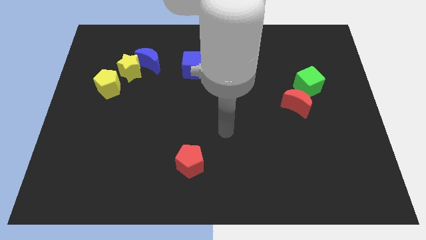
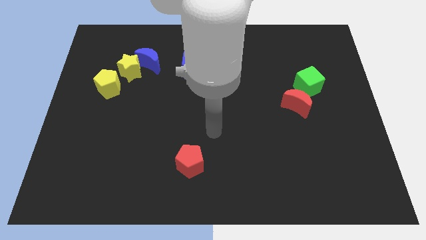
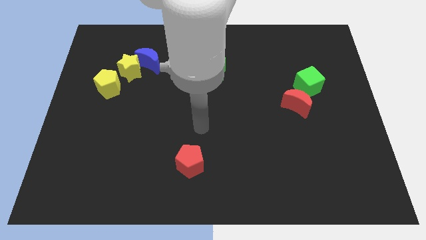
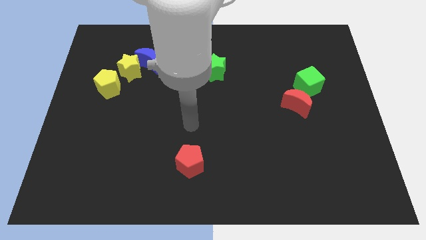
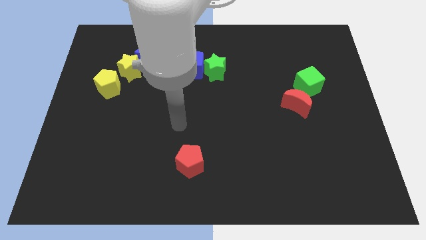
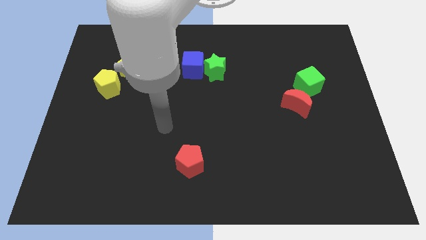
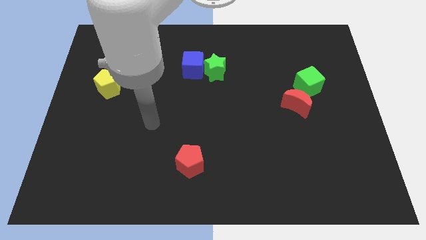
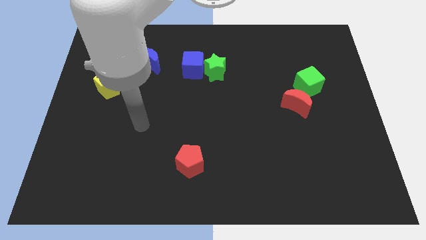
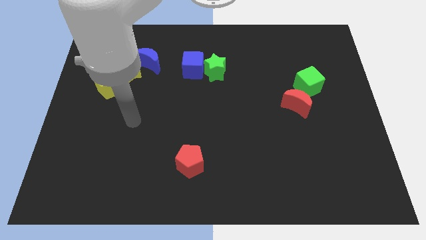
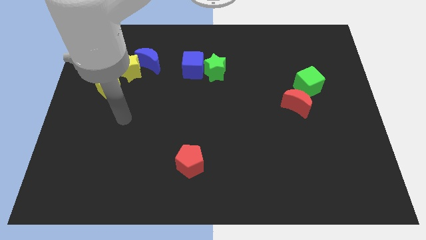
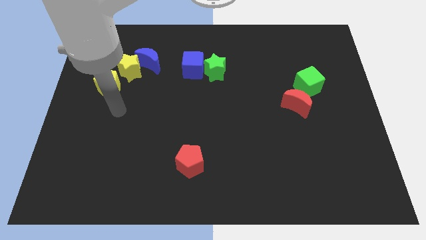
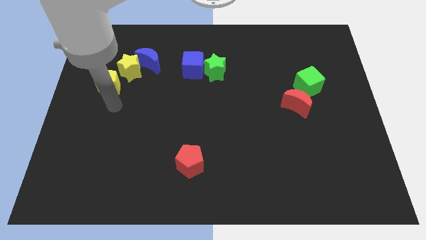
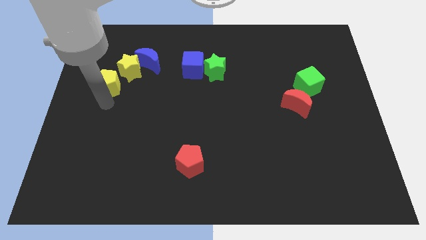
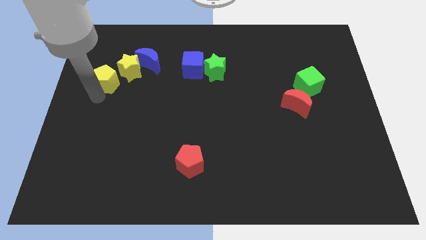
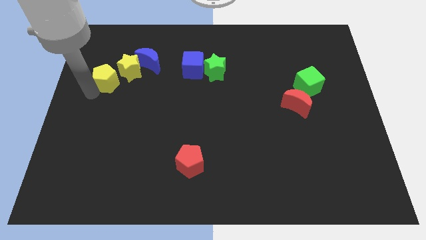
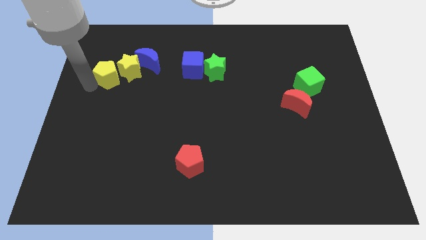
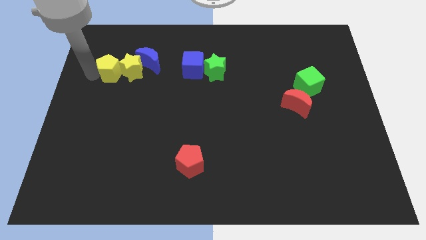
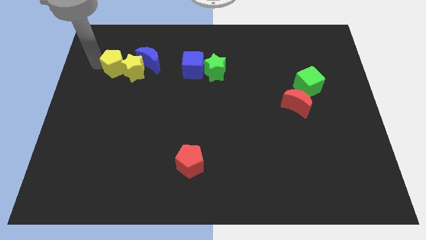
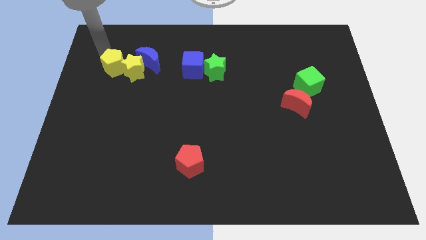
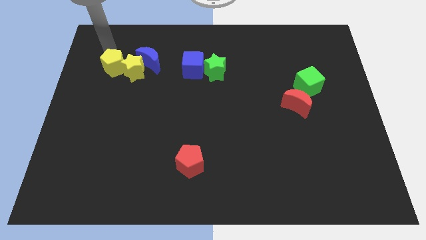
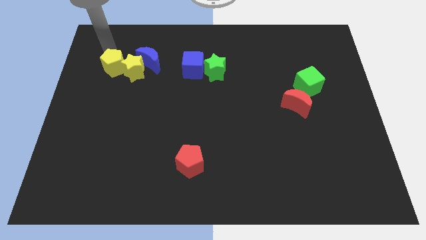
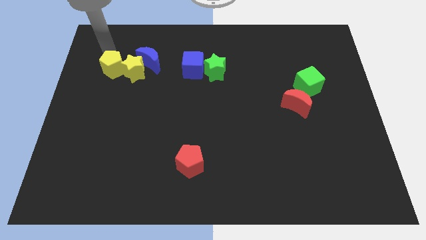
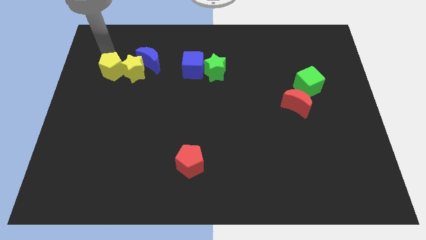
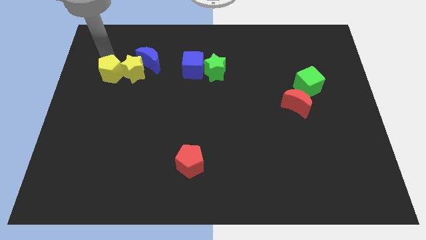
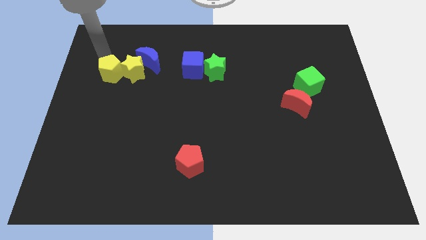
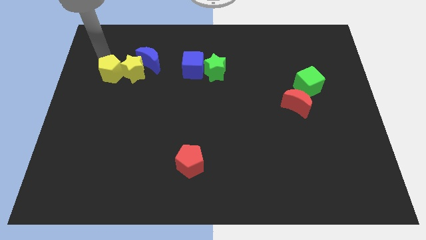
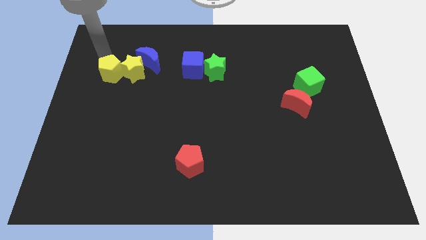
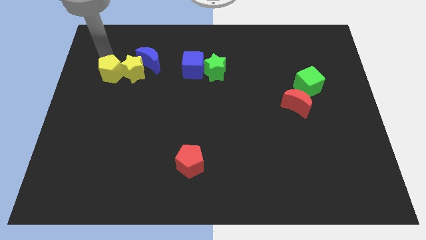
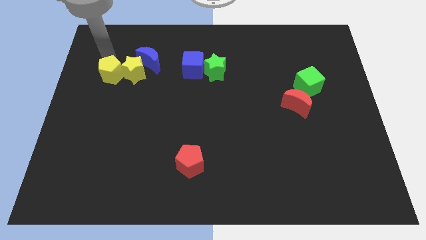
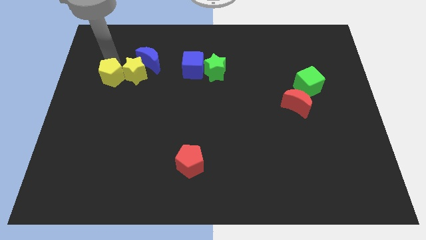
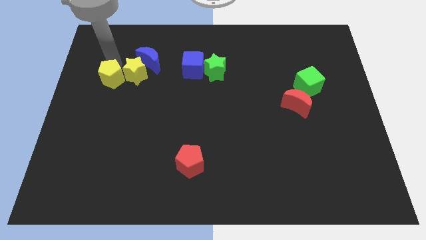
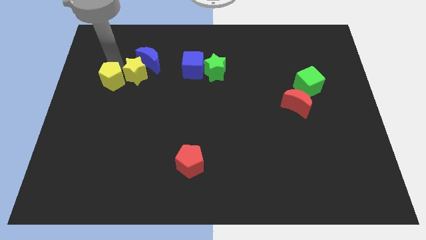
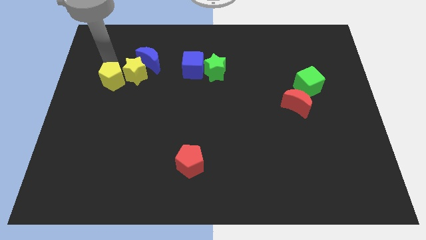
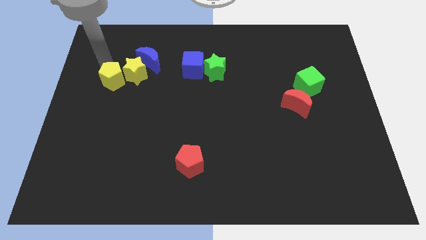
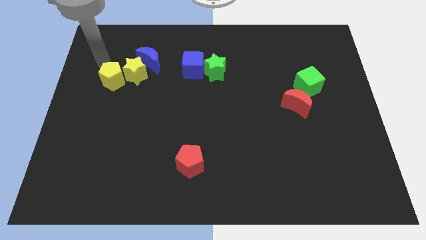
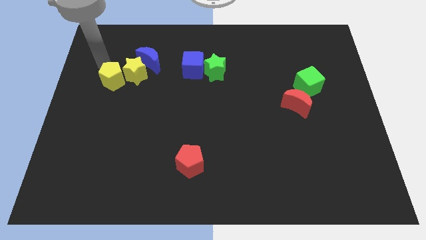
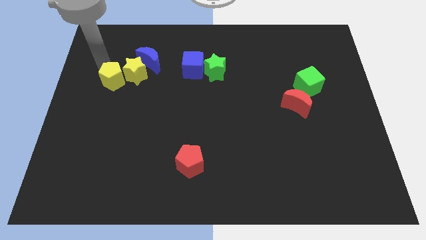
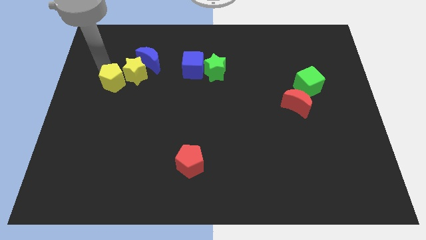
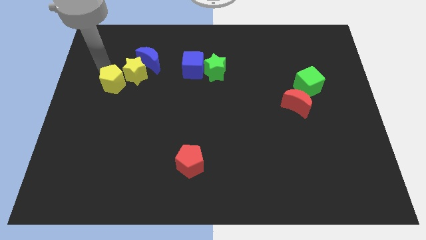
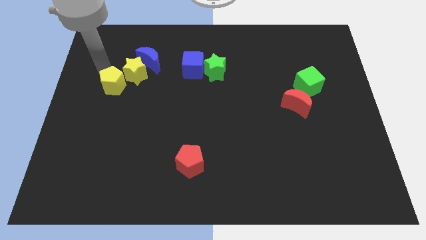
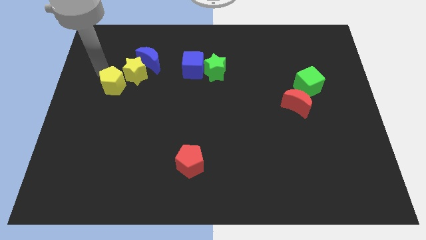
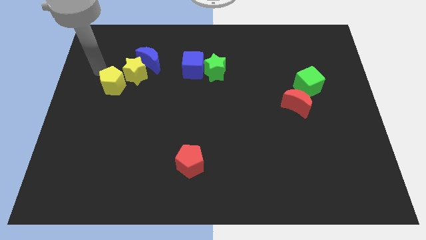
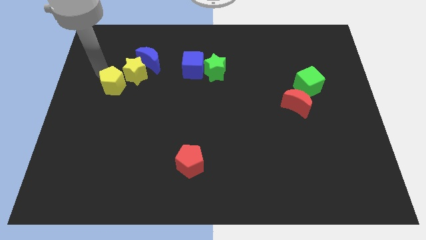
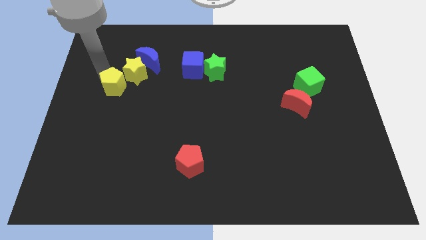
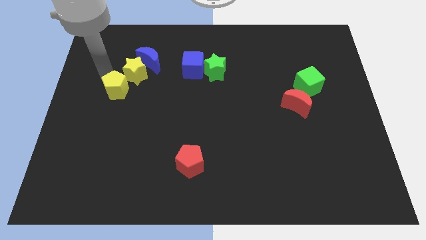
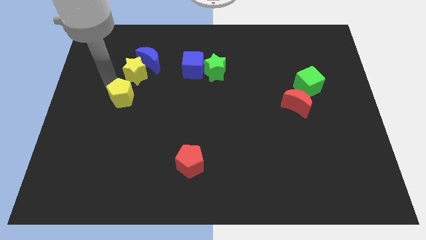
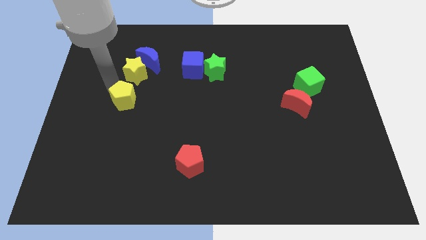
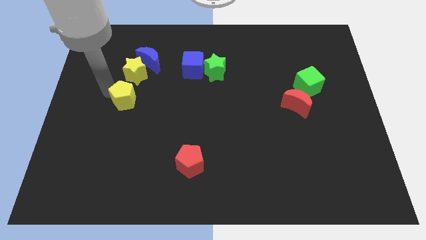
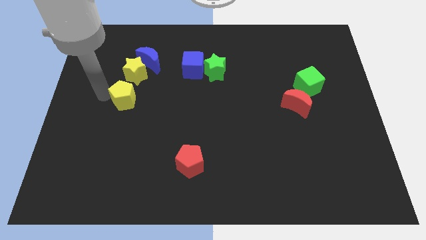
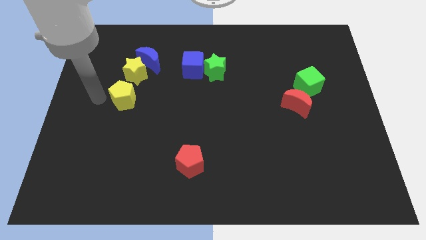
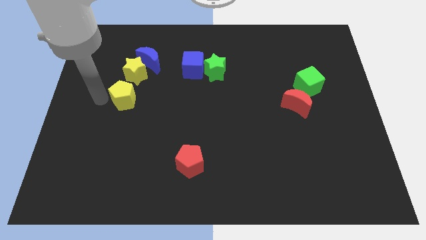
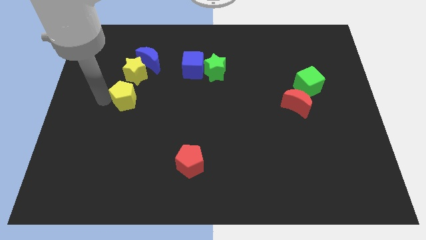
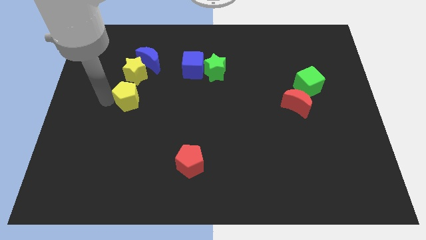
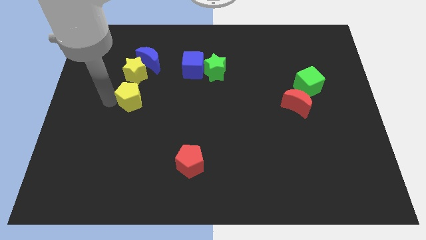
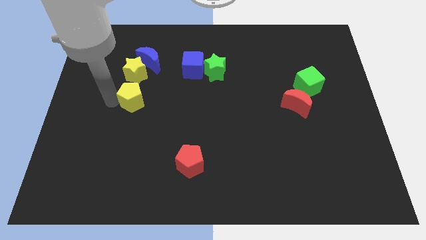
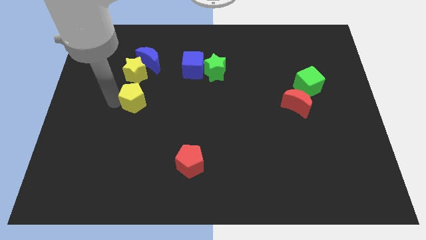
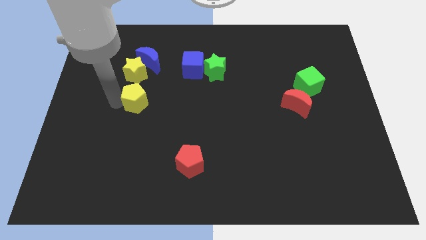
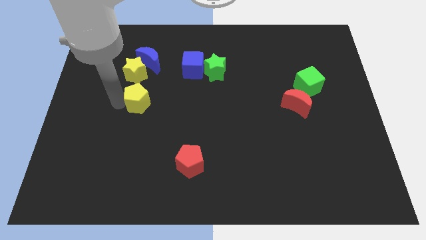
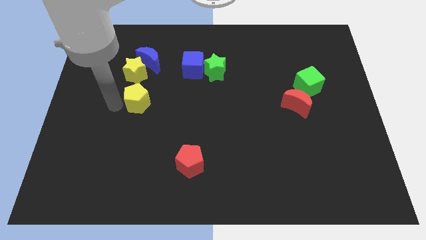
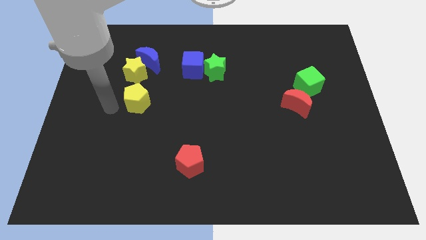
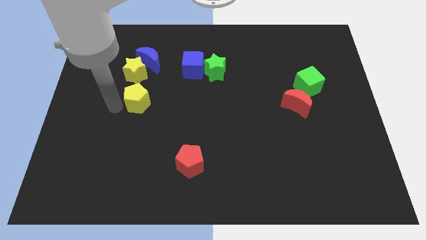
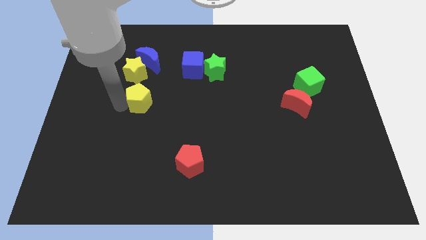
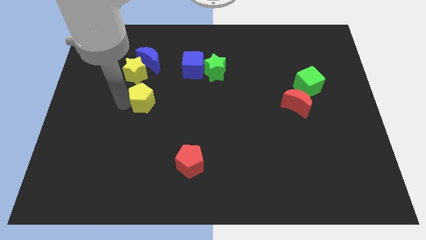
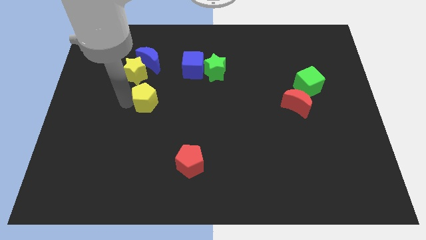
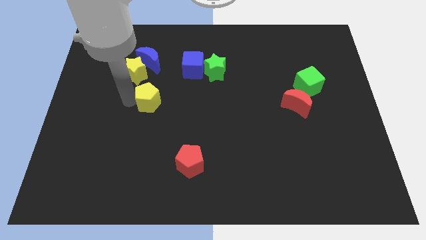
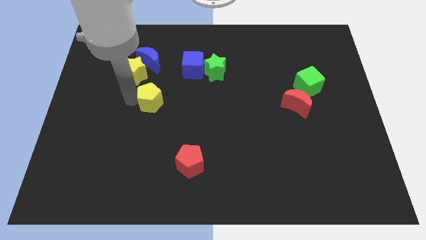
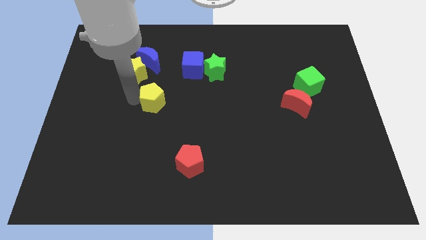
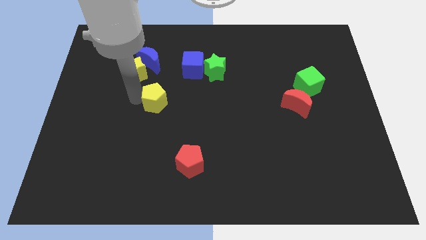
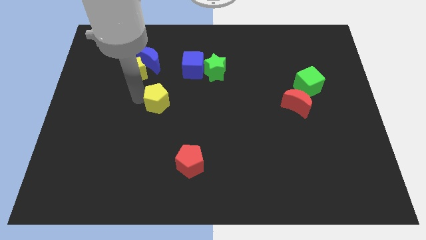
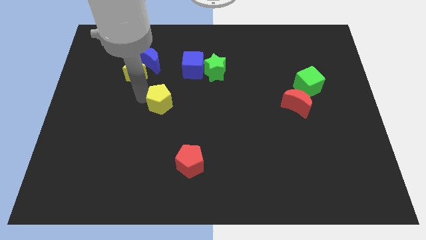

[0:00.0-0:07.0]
push the yellow pentagon to the center

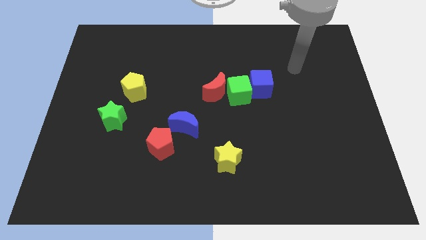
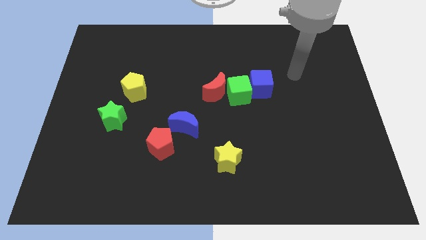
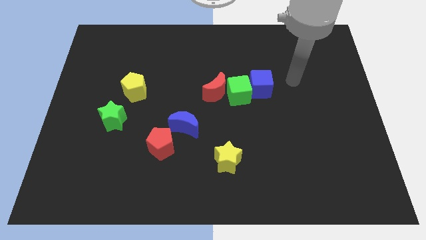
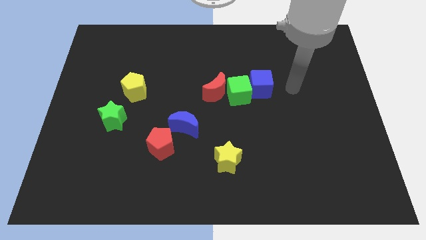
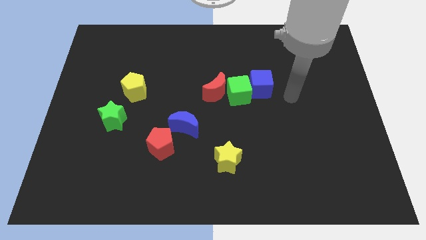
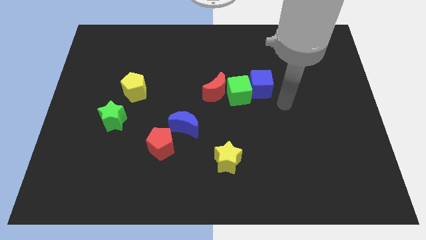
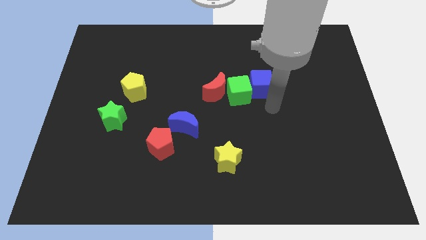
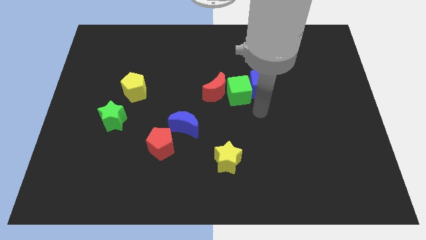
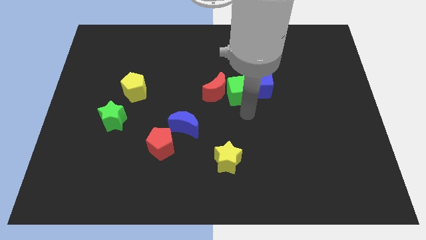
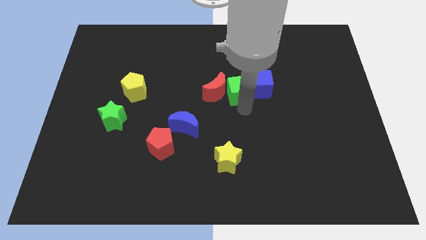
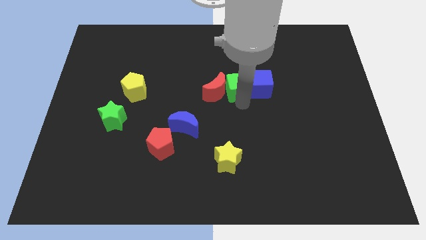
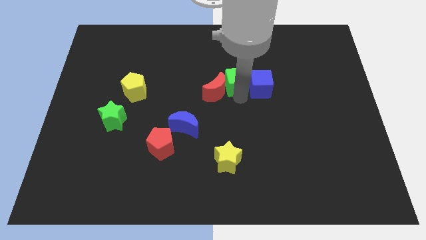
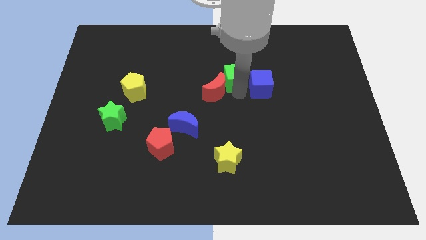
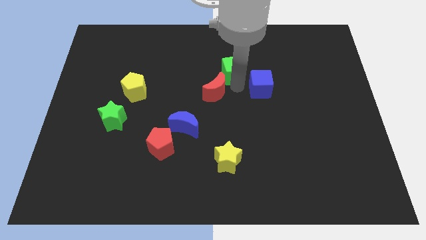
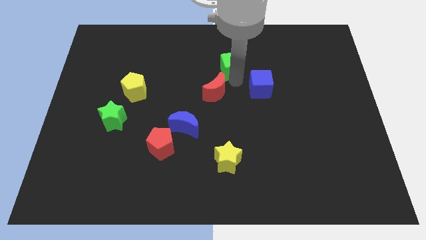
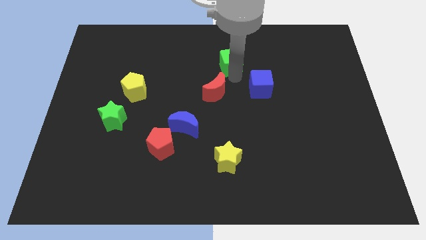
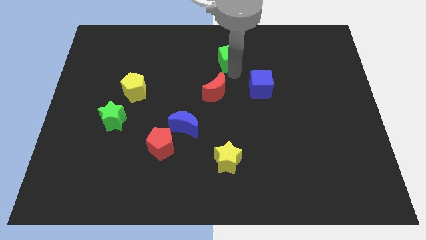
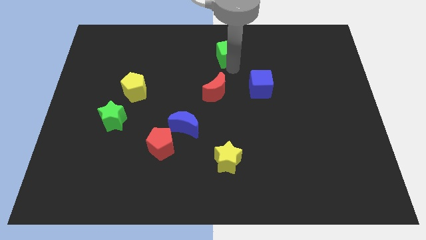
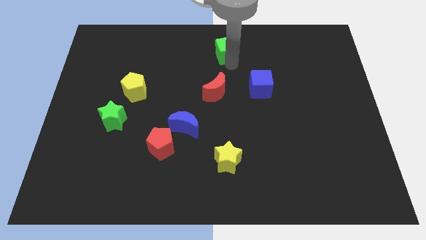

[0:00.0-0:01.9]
put the green cube to the towards your base
